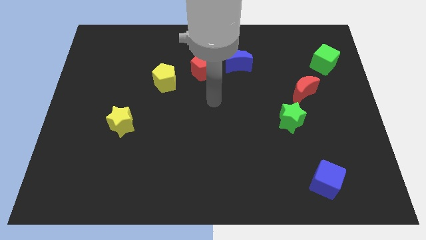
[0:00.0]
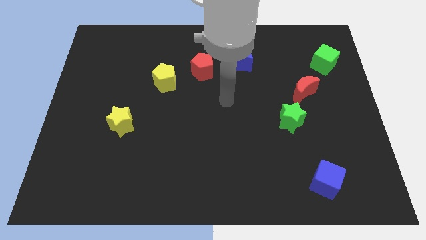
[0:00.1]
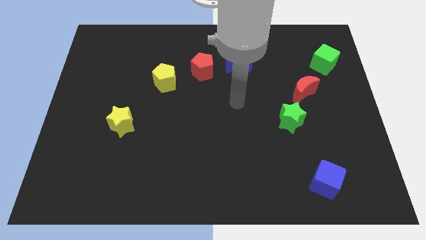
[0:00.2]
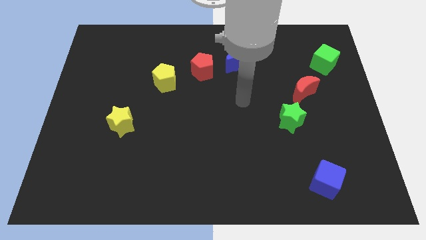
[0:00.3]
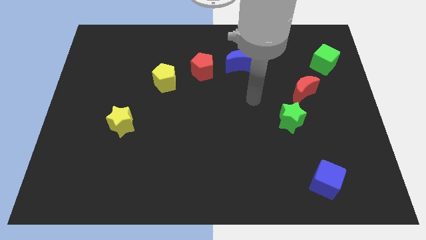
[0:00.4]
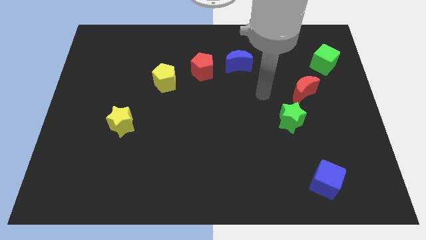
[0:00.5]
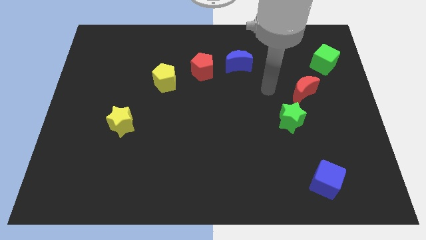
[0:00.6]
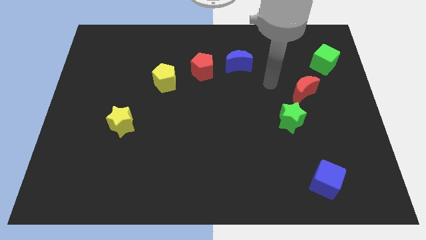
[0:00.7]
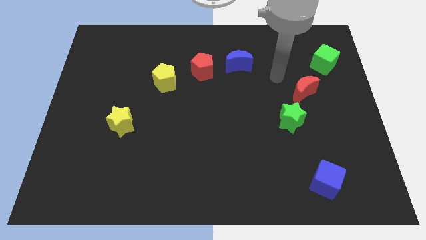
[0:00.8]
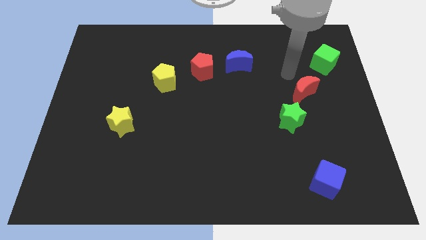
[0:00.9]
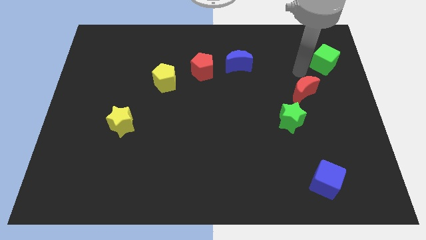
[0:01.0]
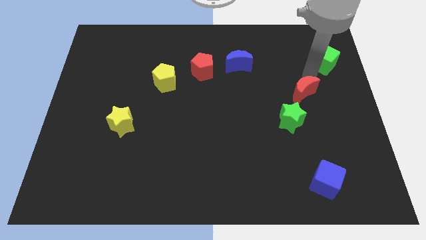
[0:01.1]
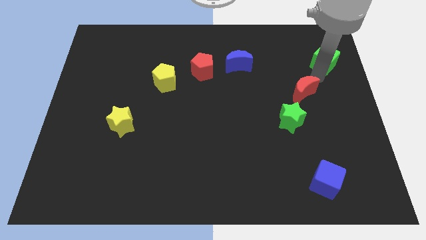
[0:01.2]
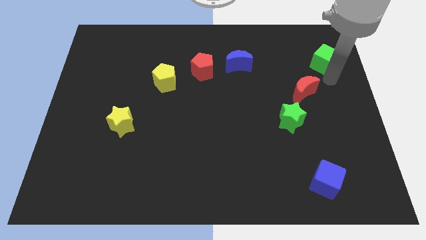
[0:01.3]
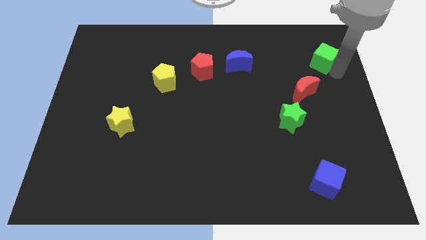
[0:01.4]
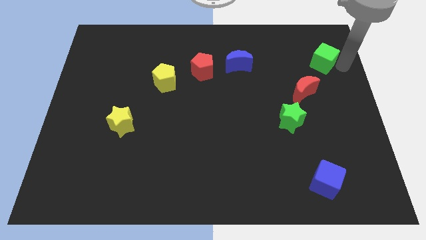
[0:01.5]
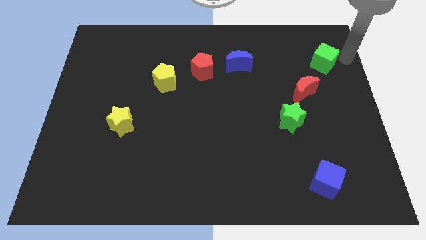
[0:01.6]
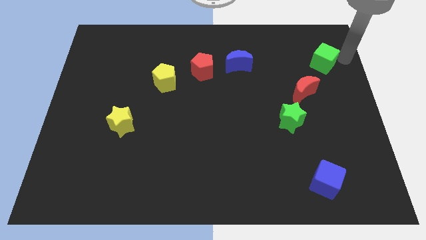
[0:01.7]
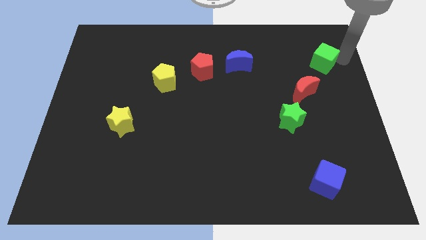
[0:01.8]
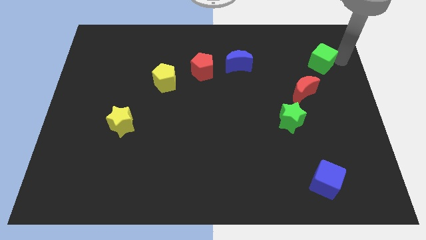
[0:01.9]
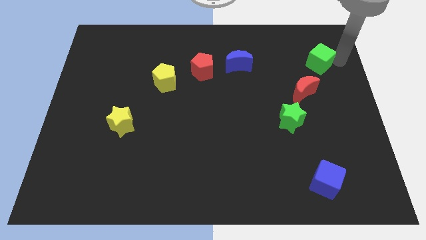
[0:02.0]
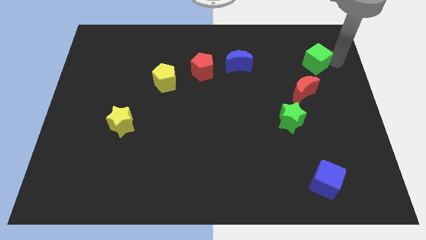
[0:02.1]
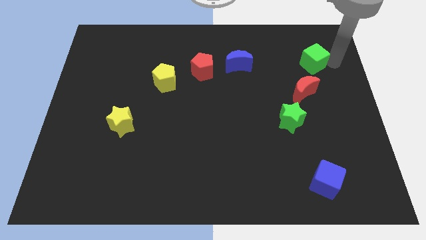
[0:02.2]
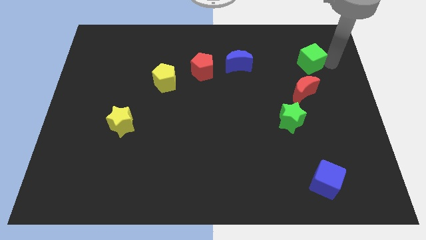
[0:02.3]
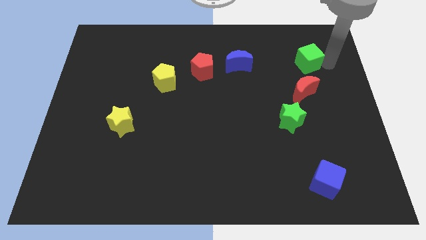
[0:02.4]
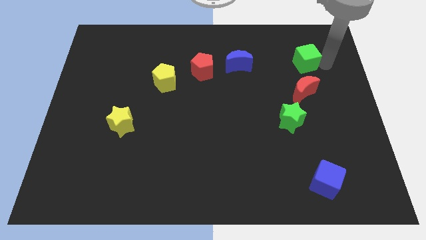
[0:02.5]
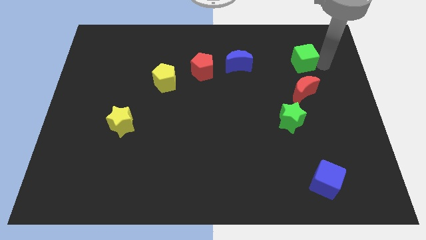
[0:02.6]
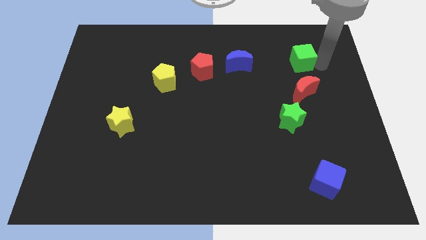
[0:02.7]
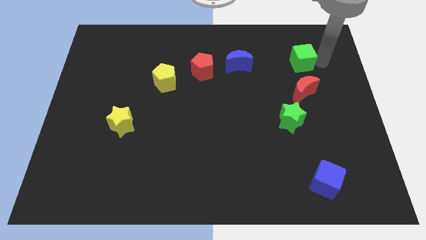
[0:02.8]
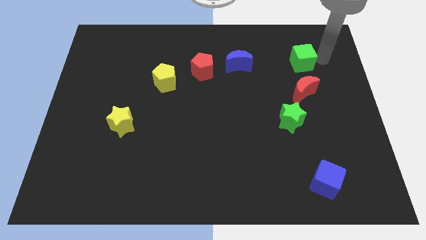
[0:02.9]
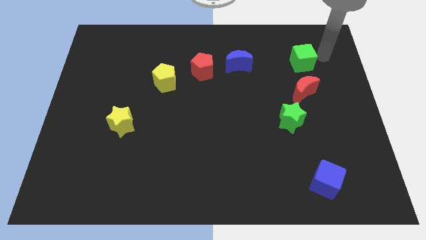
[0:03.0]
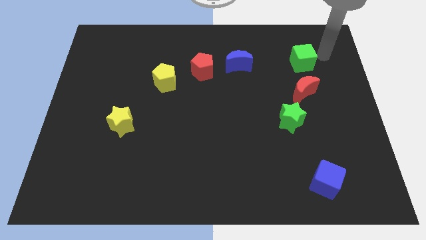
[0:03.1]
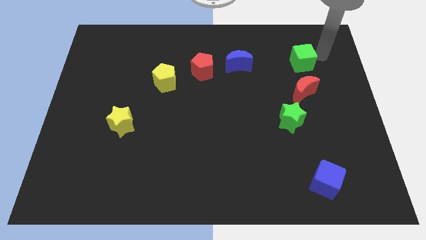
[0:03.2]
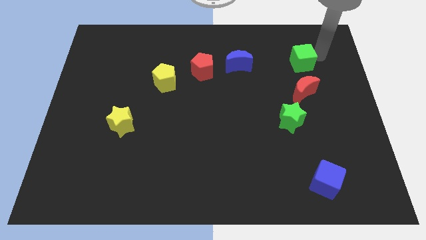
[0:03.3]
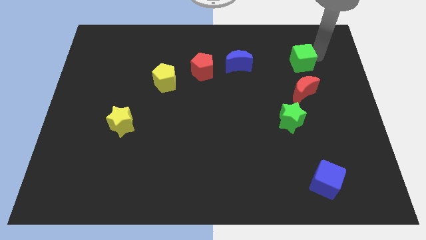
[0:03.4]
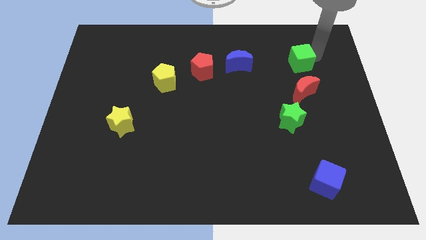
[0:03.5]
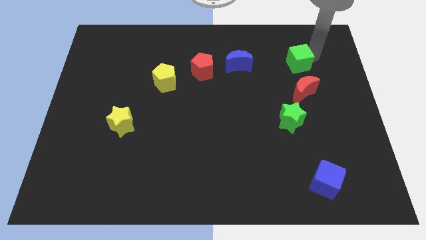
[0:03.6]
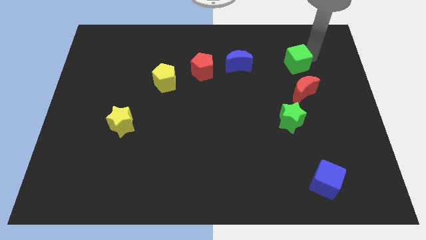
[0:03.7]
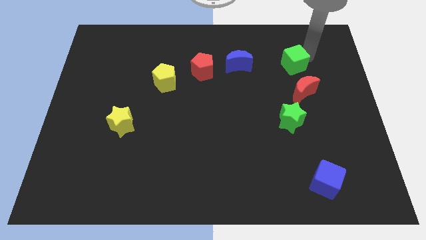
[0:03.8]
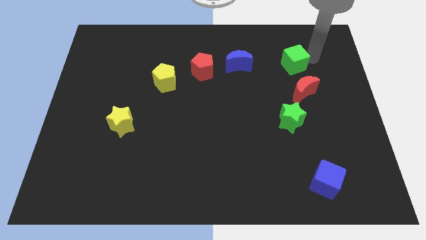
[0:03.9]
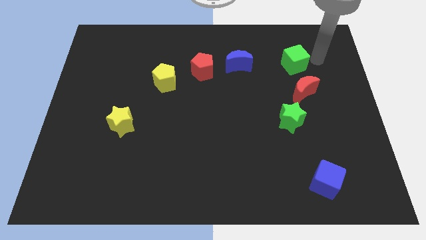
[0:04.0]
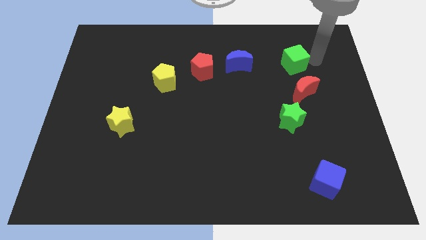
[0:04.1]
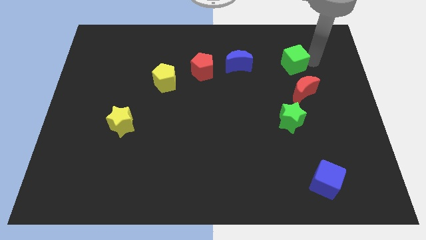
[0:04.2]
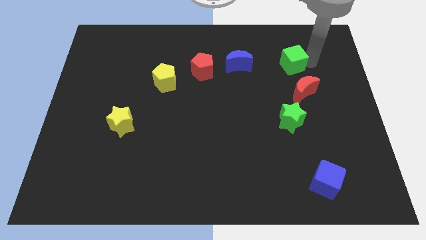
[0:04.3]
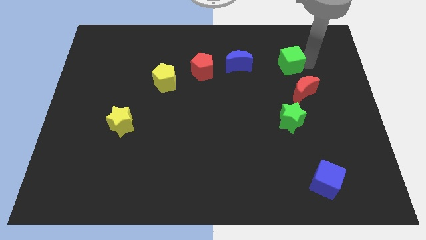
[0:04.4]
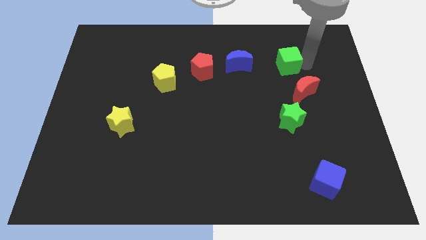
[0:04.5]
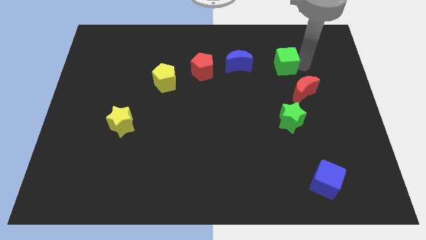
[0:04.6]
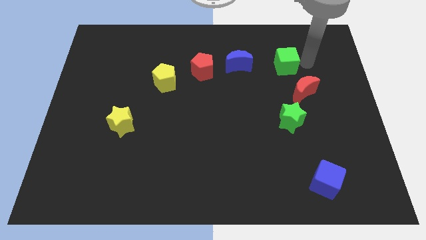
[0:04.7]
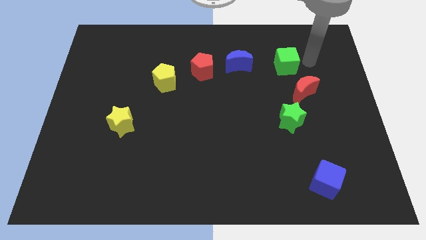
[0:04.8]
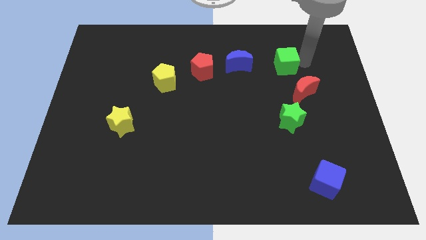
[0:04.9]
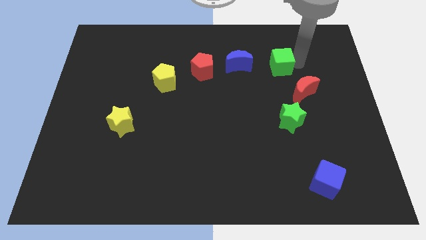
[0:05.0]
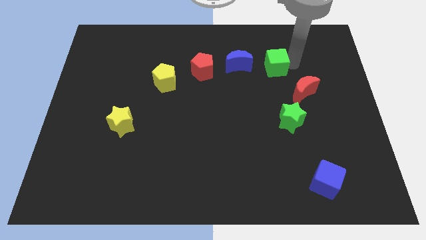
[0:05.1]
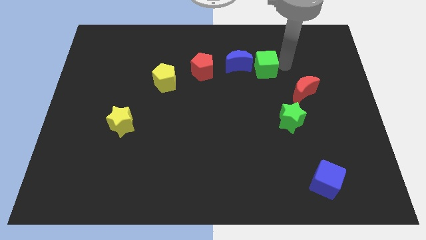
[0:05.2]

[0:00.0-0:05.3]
move the green cube right of the red pentagon

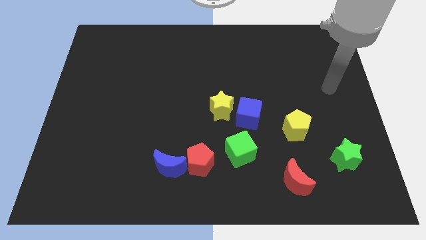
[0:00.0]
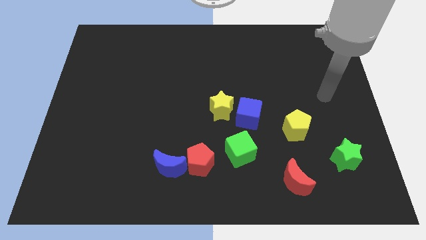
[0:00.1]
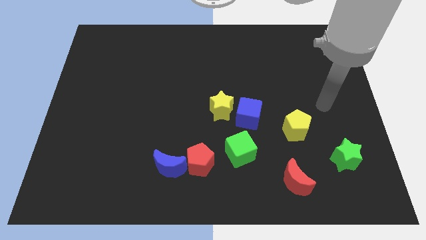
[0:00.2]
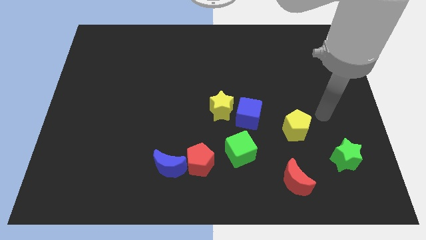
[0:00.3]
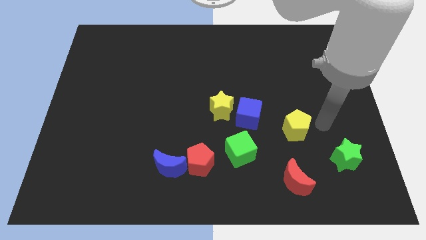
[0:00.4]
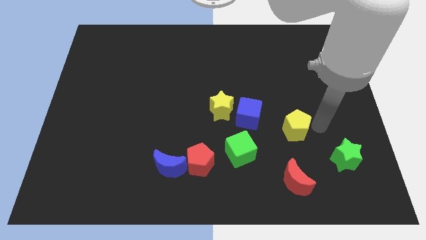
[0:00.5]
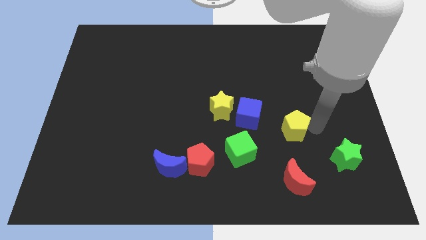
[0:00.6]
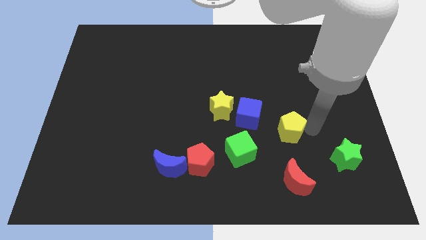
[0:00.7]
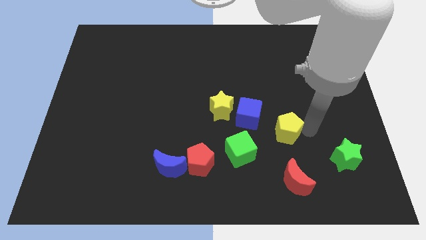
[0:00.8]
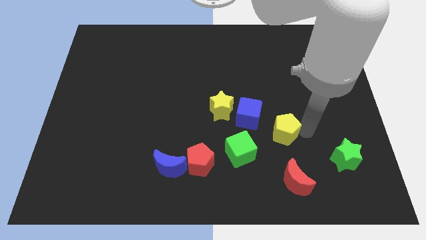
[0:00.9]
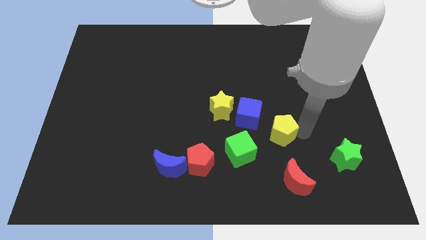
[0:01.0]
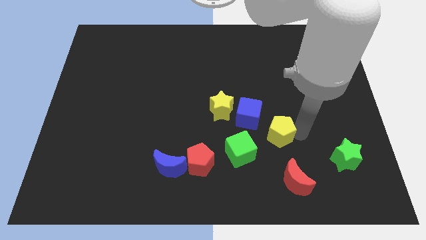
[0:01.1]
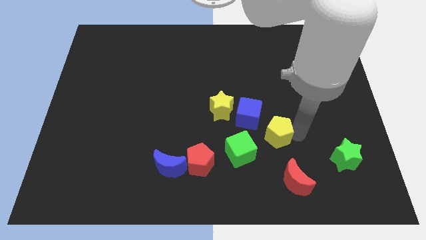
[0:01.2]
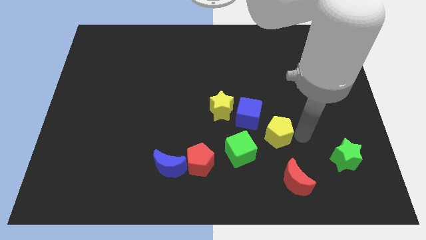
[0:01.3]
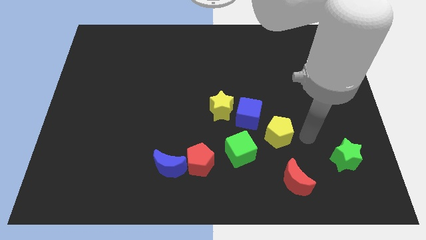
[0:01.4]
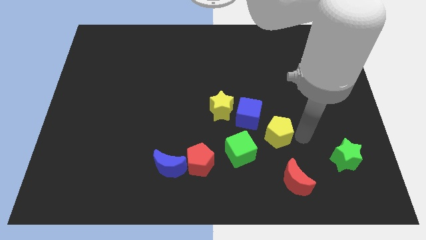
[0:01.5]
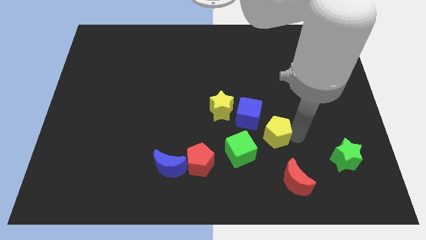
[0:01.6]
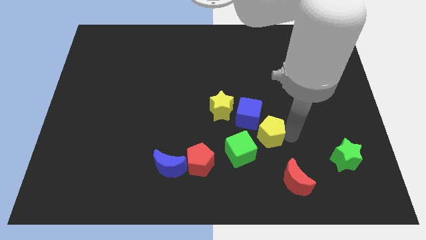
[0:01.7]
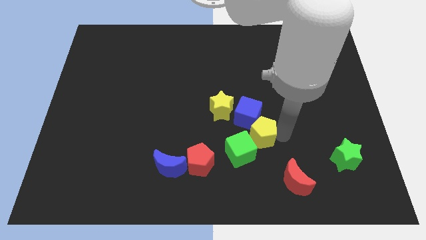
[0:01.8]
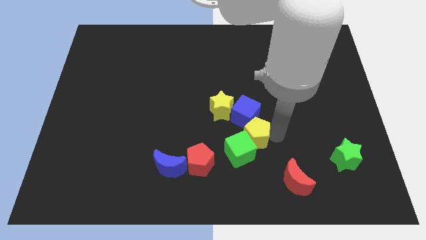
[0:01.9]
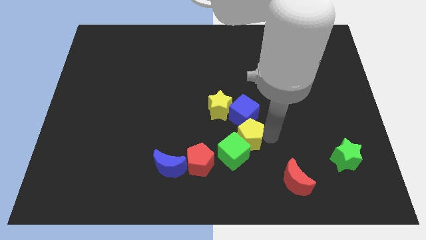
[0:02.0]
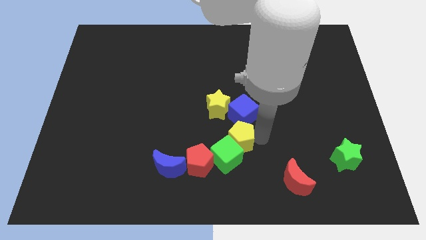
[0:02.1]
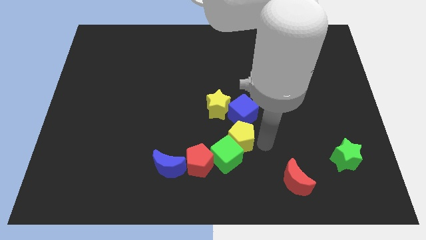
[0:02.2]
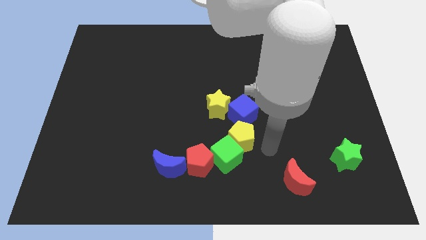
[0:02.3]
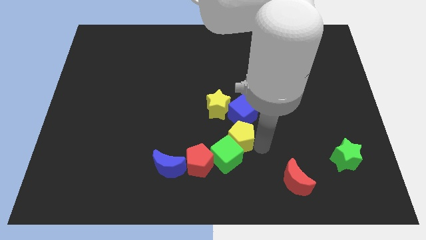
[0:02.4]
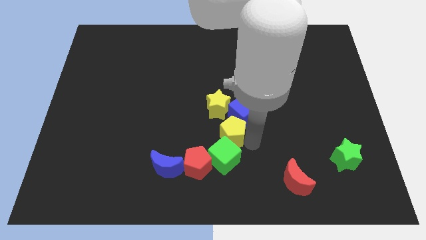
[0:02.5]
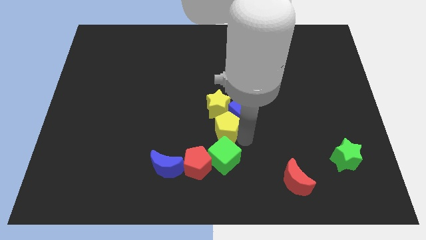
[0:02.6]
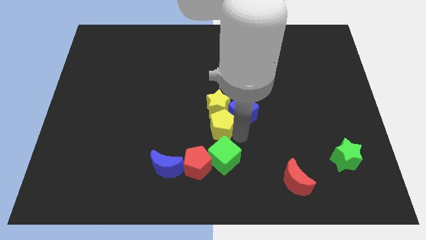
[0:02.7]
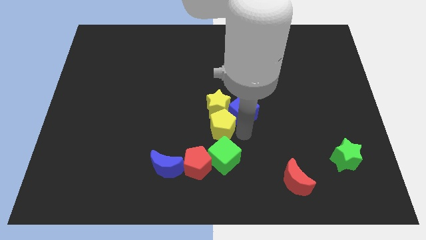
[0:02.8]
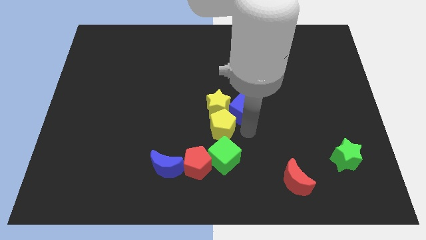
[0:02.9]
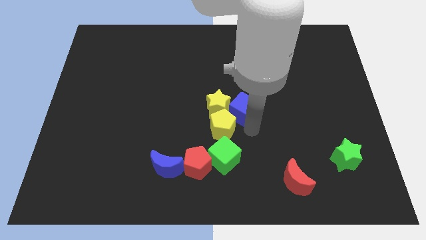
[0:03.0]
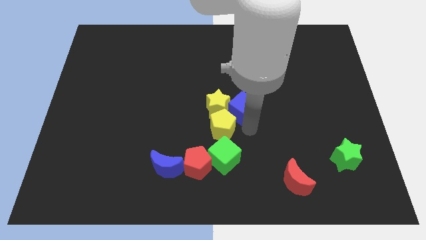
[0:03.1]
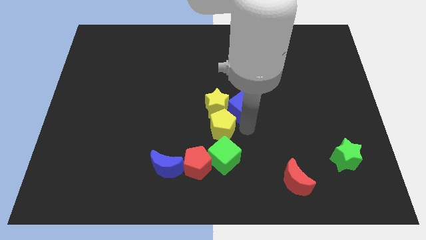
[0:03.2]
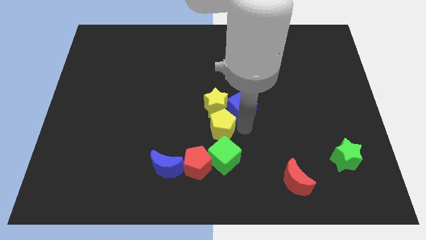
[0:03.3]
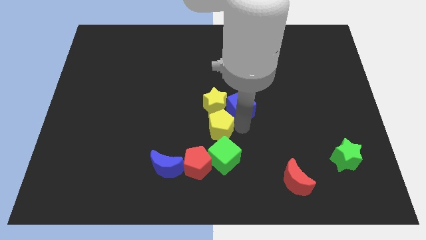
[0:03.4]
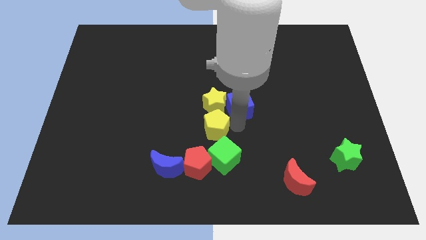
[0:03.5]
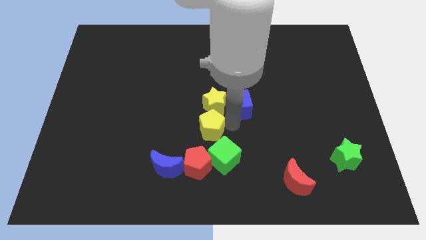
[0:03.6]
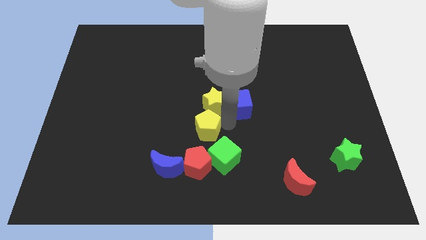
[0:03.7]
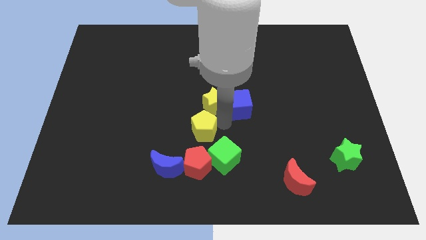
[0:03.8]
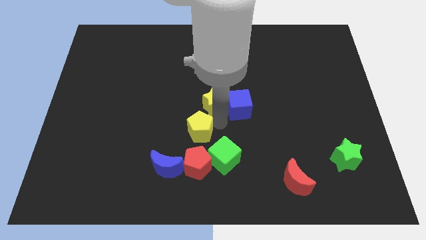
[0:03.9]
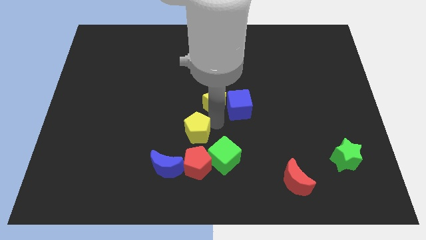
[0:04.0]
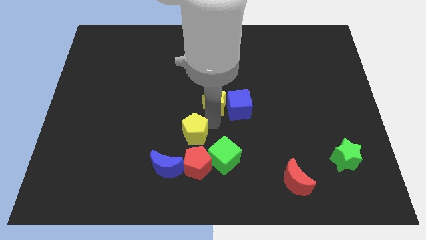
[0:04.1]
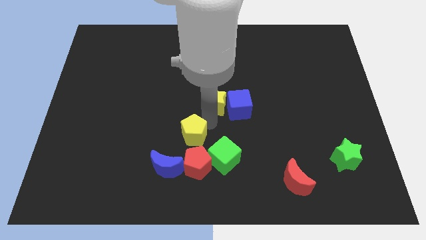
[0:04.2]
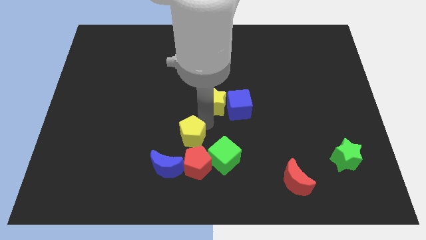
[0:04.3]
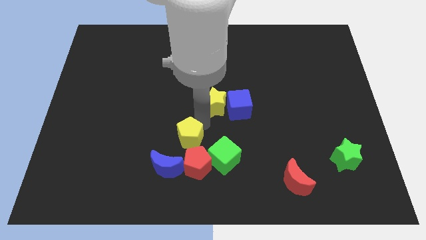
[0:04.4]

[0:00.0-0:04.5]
move the yellow pentagon to the top of the blue moon
